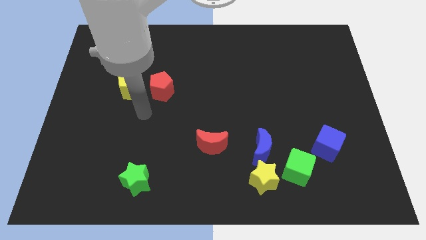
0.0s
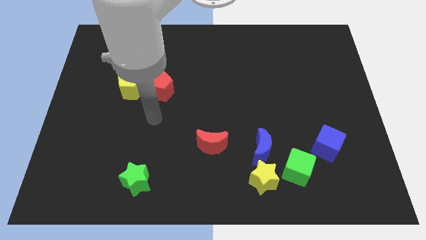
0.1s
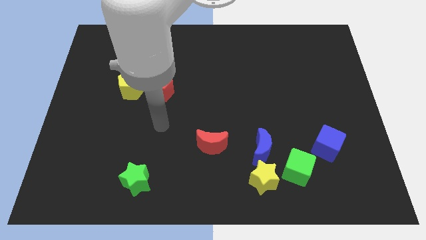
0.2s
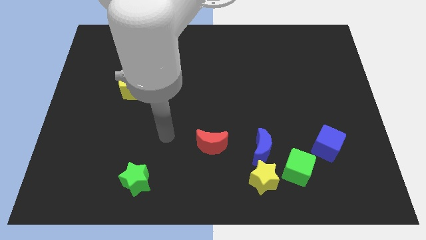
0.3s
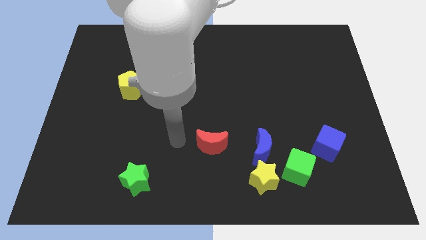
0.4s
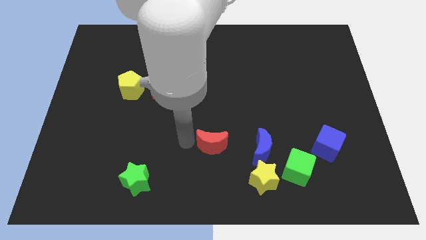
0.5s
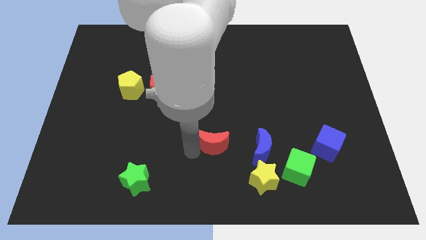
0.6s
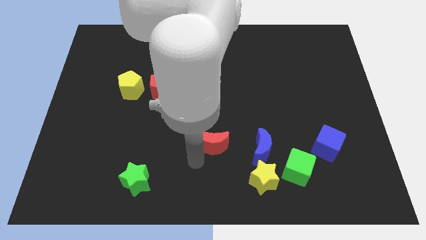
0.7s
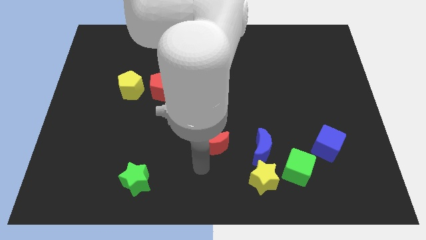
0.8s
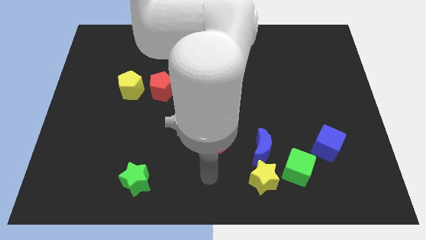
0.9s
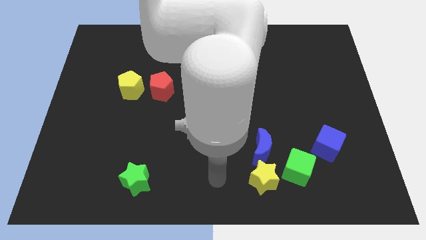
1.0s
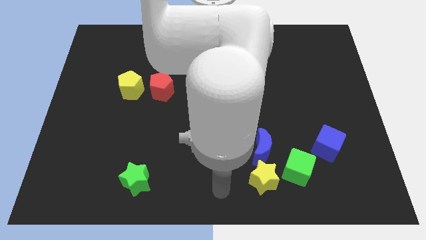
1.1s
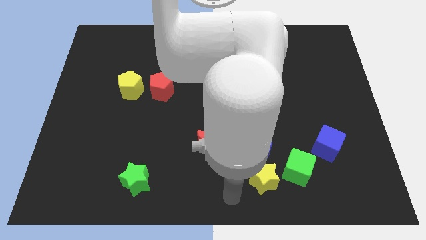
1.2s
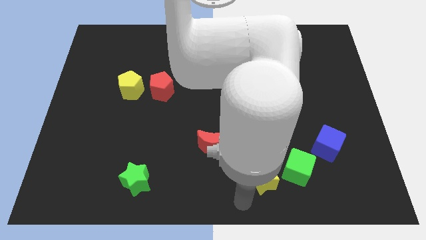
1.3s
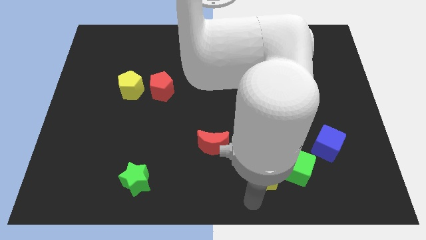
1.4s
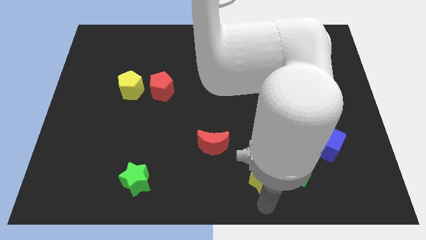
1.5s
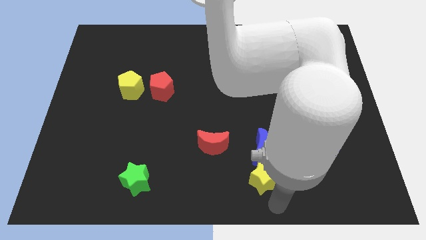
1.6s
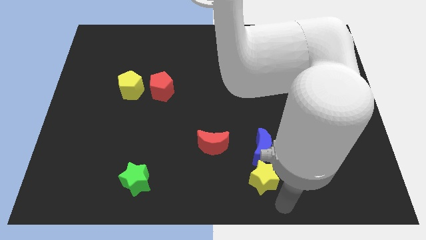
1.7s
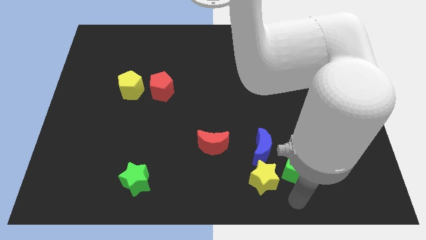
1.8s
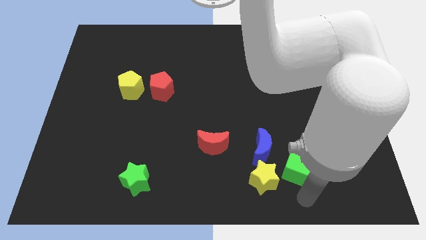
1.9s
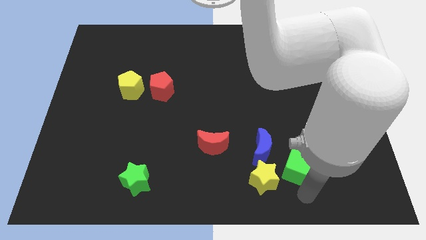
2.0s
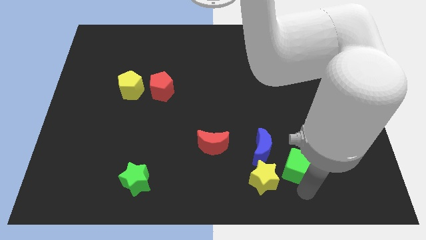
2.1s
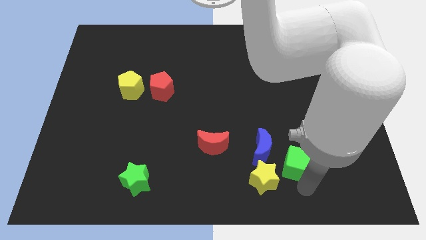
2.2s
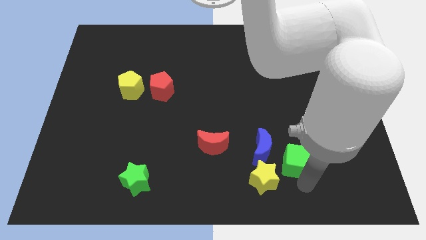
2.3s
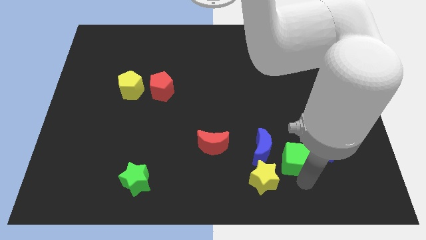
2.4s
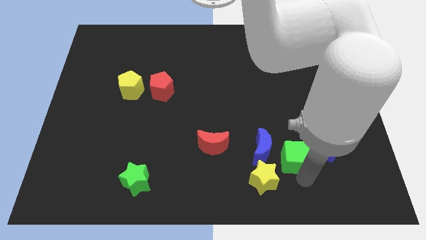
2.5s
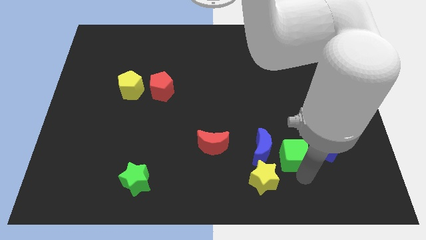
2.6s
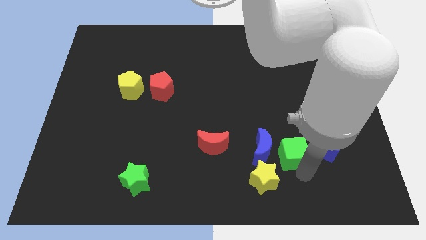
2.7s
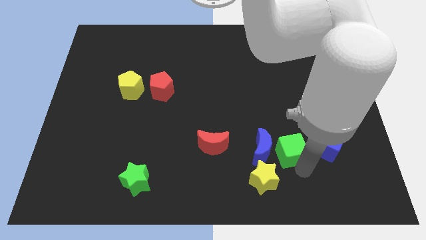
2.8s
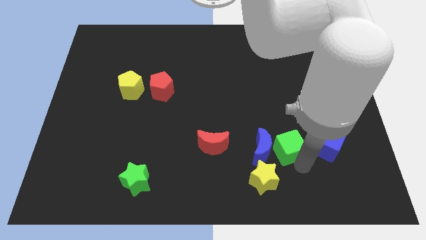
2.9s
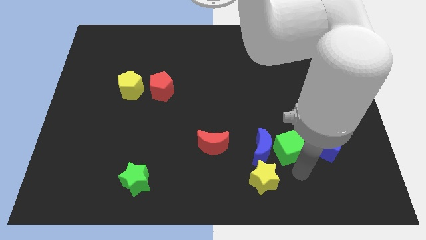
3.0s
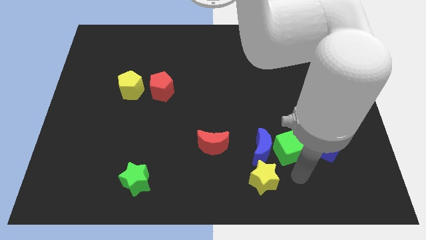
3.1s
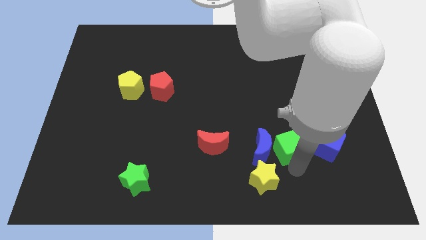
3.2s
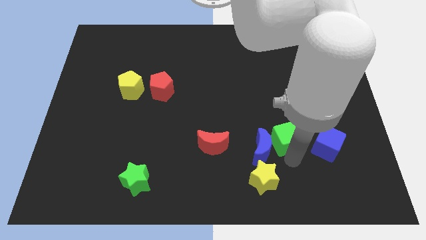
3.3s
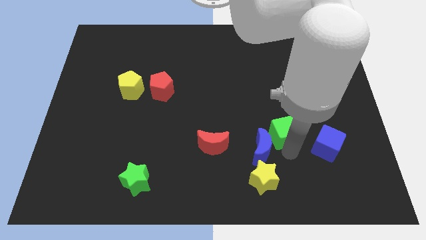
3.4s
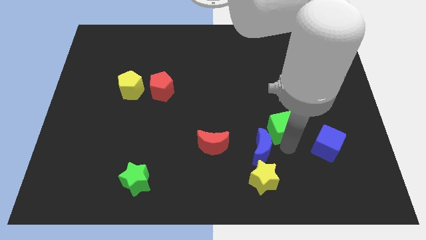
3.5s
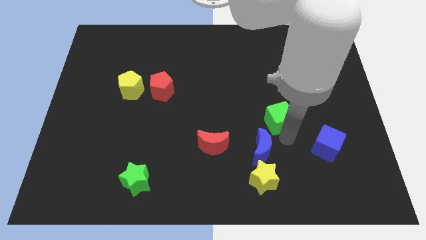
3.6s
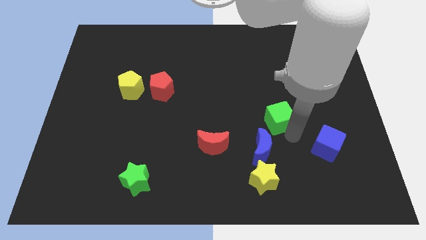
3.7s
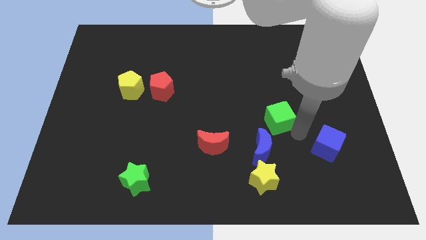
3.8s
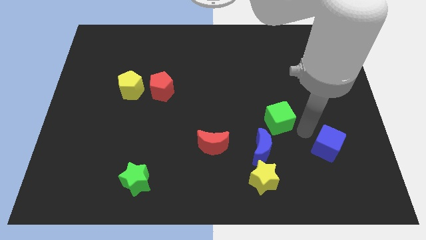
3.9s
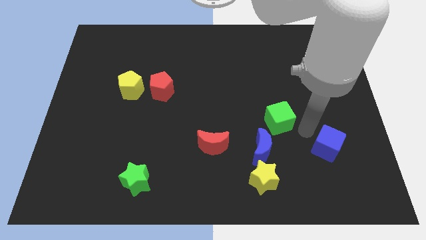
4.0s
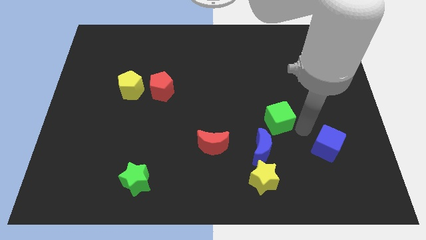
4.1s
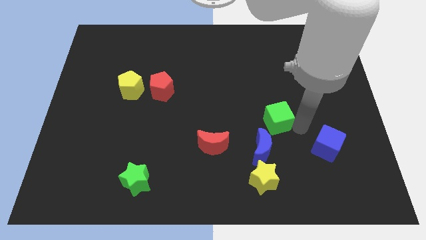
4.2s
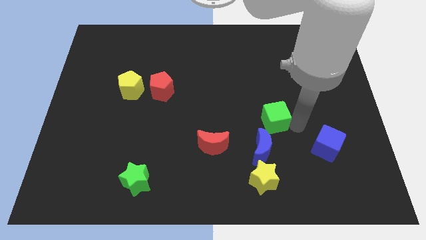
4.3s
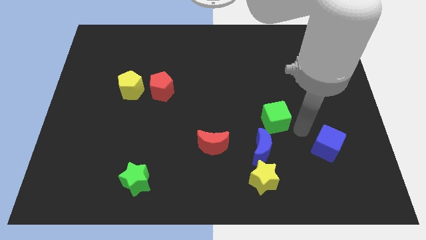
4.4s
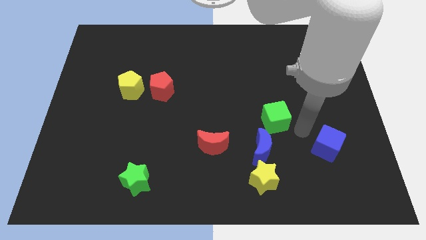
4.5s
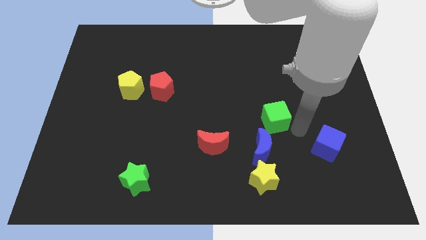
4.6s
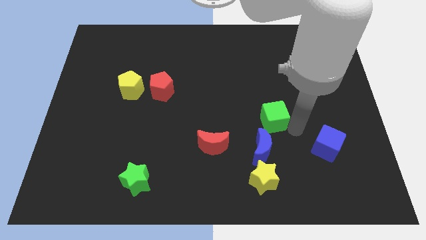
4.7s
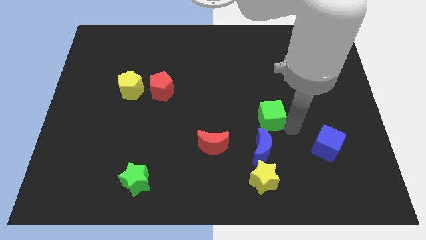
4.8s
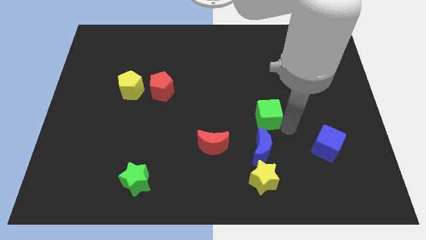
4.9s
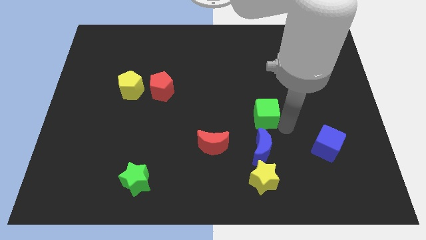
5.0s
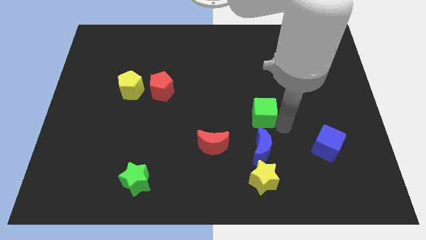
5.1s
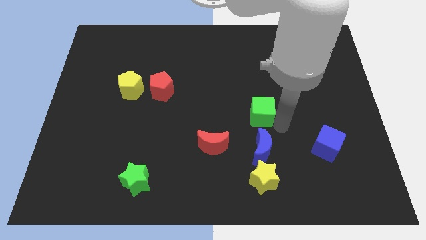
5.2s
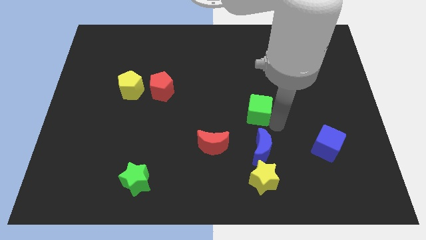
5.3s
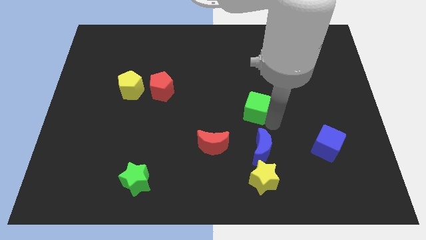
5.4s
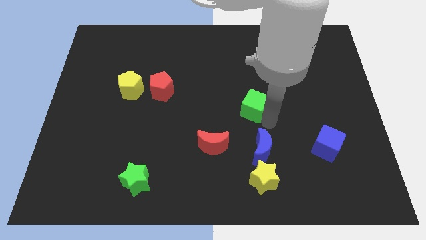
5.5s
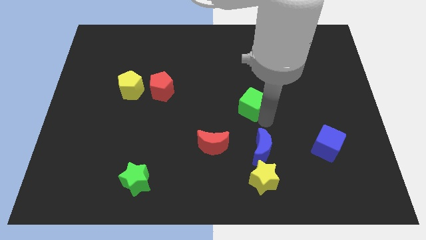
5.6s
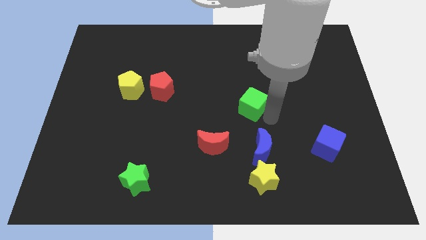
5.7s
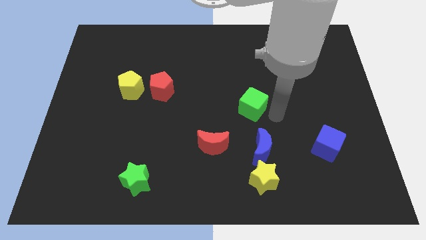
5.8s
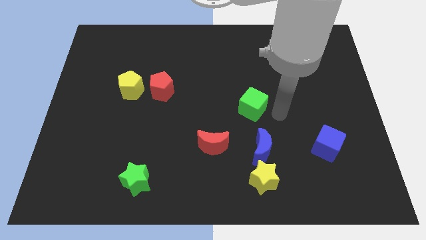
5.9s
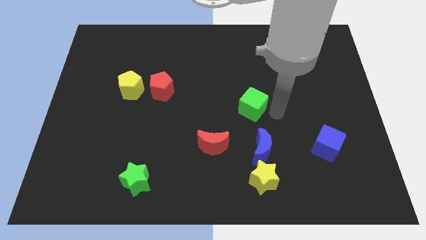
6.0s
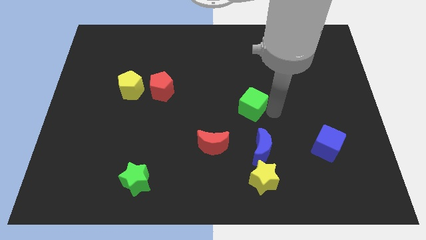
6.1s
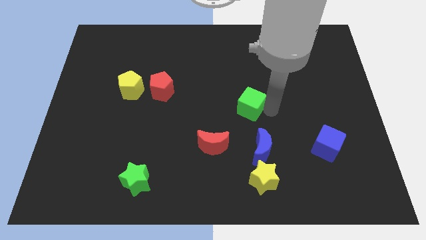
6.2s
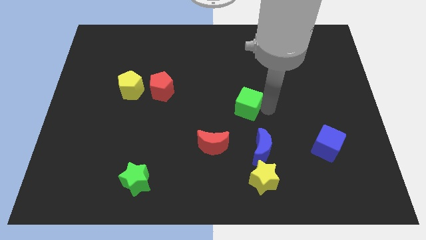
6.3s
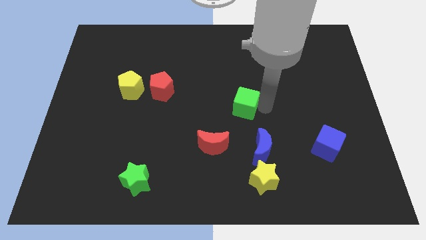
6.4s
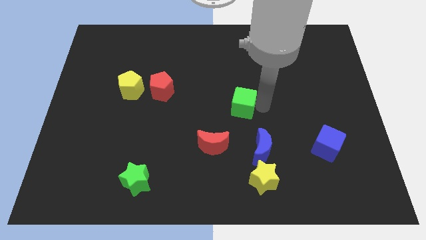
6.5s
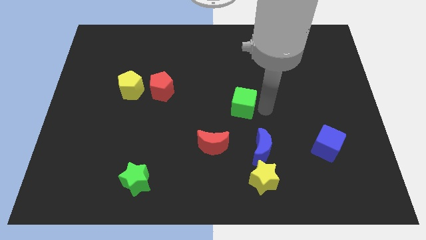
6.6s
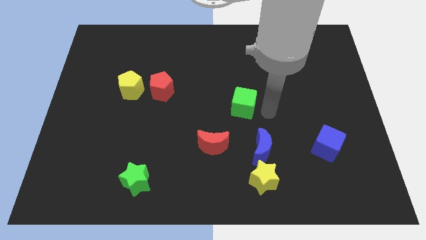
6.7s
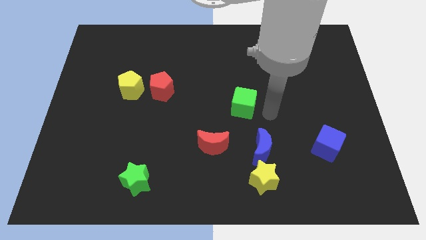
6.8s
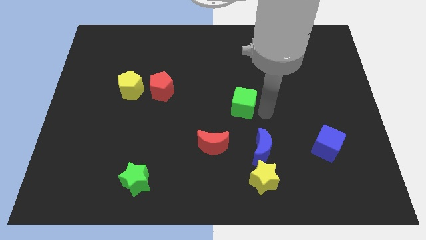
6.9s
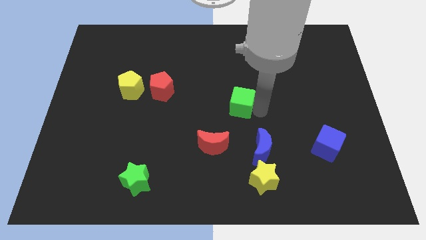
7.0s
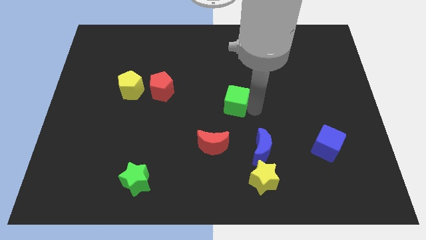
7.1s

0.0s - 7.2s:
move the green cube diagonally up and left

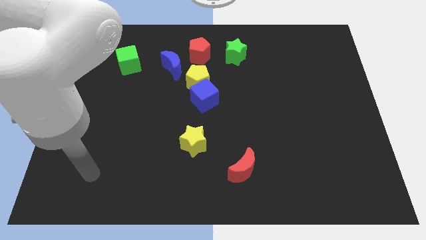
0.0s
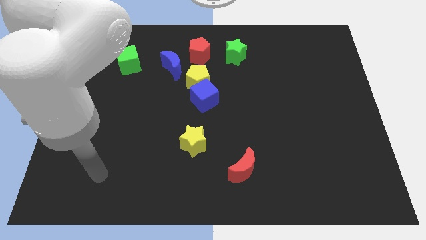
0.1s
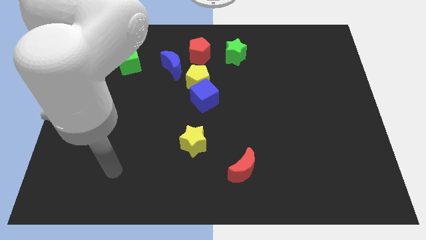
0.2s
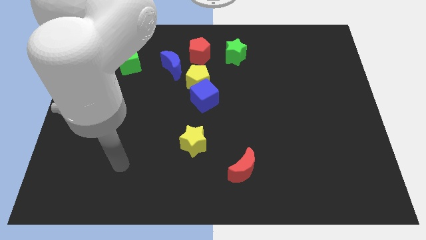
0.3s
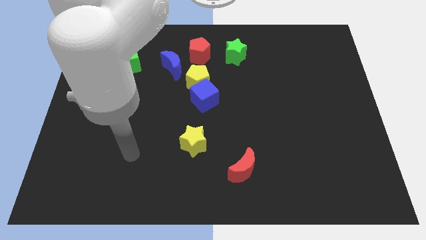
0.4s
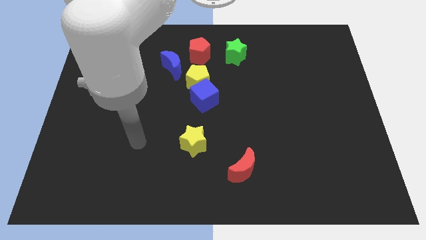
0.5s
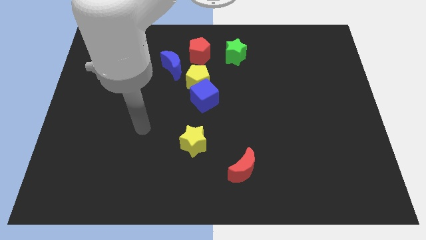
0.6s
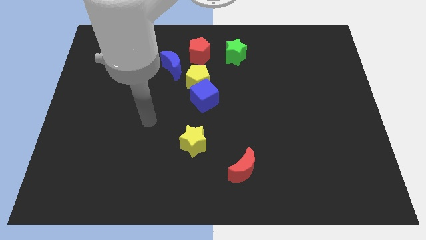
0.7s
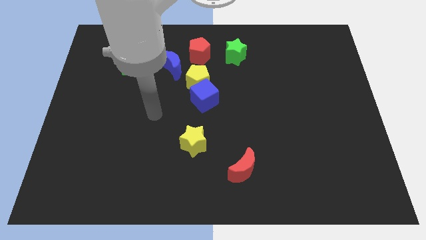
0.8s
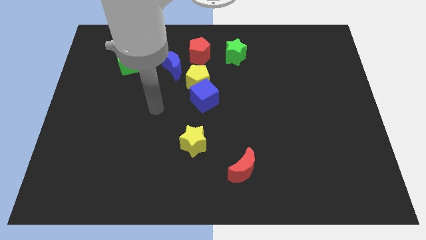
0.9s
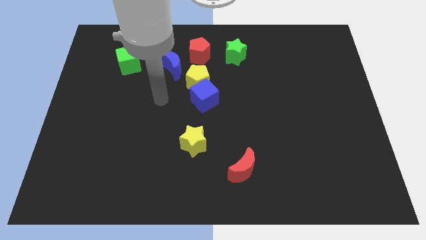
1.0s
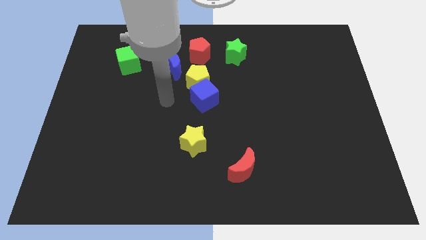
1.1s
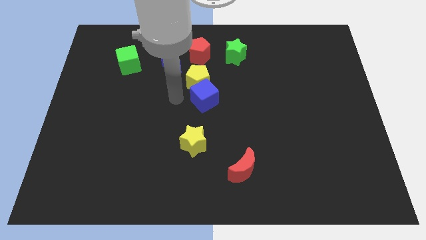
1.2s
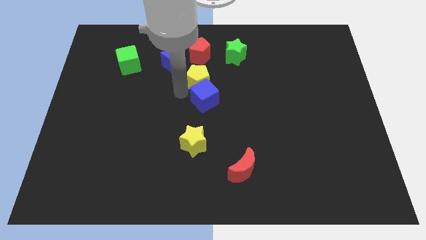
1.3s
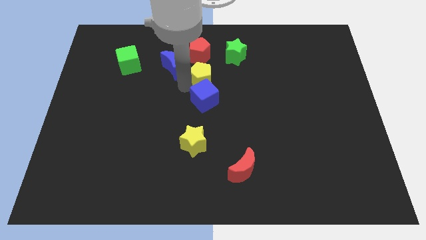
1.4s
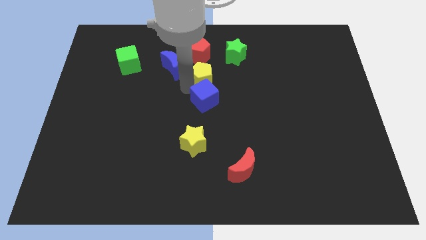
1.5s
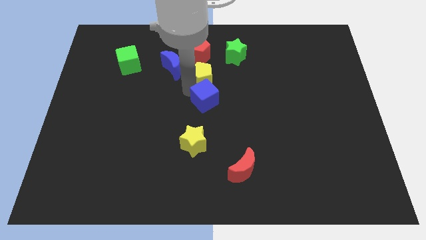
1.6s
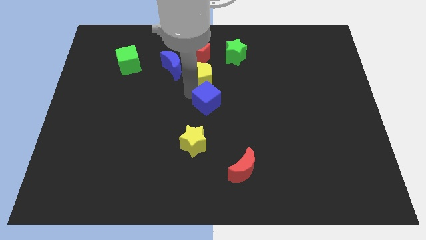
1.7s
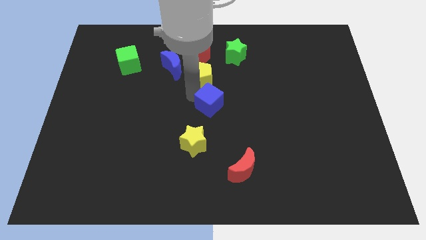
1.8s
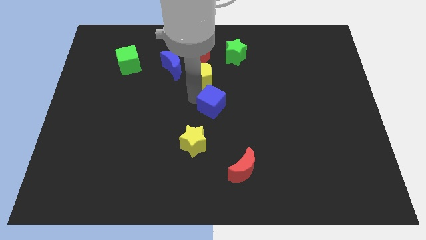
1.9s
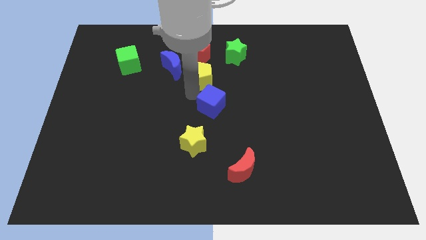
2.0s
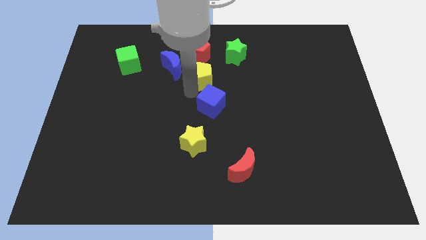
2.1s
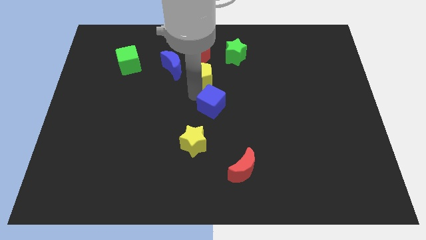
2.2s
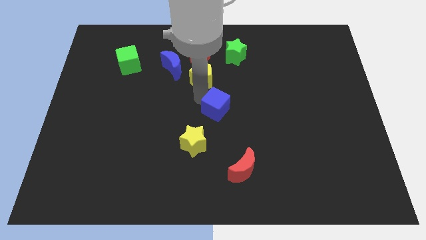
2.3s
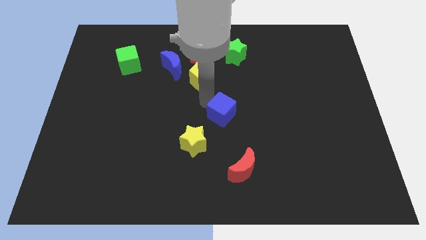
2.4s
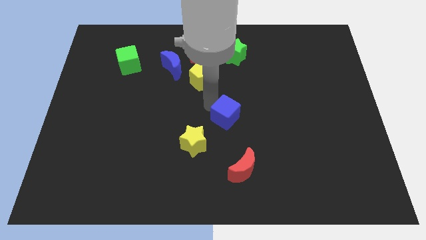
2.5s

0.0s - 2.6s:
slightly move the blue cube down and then to the right
